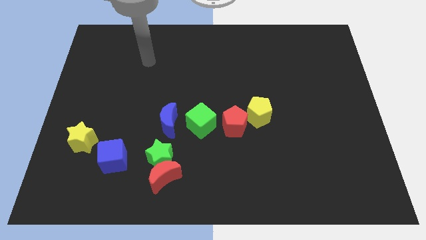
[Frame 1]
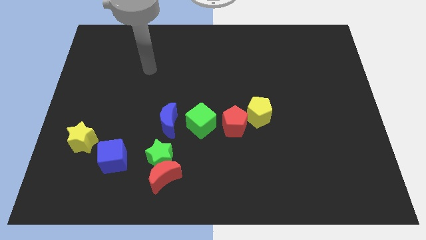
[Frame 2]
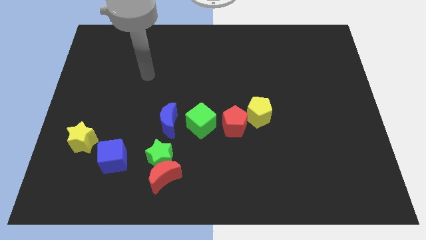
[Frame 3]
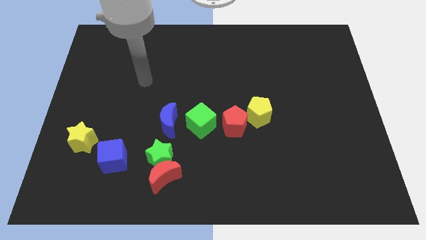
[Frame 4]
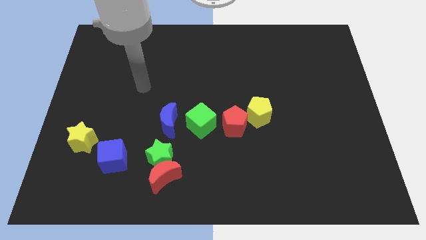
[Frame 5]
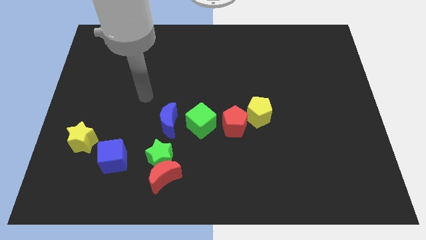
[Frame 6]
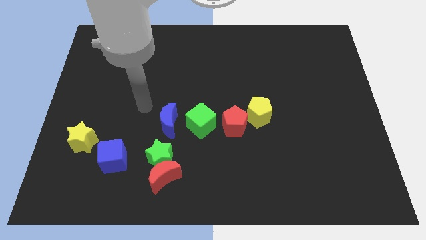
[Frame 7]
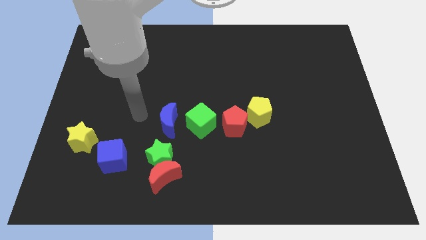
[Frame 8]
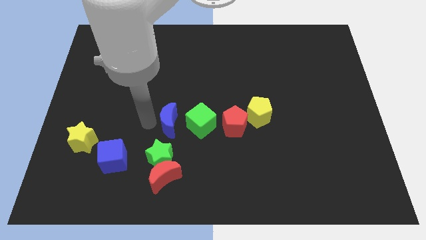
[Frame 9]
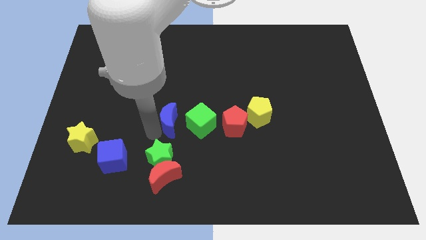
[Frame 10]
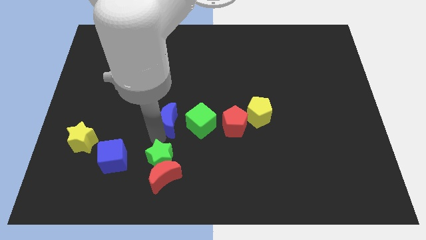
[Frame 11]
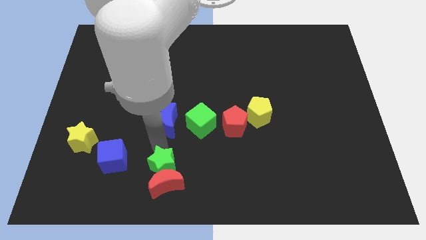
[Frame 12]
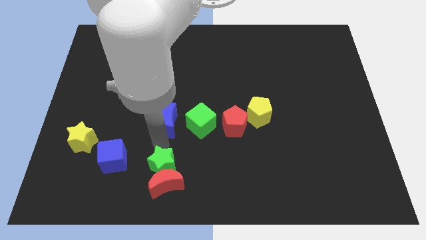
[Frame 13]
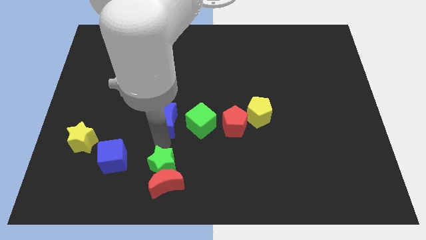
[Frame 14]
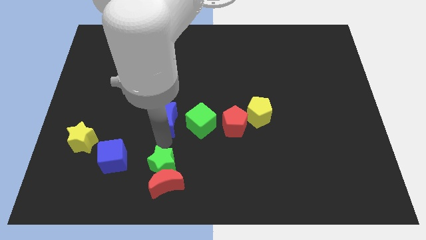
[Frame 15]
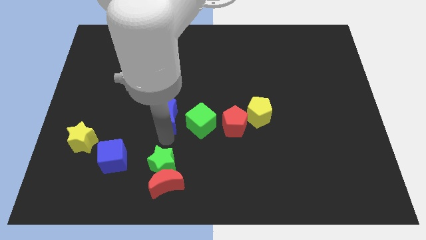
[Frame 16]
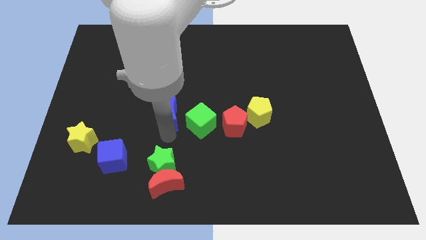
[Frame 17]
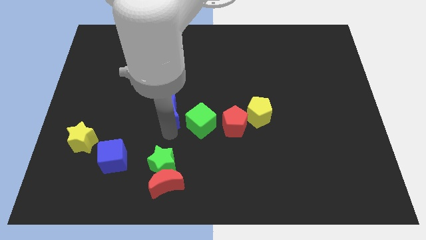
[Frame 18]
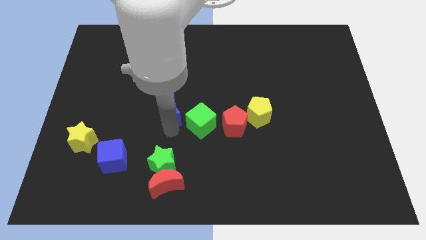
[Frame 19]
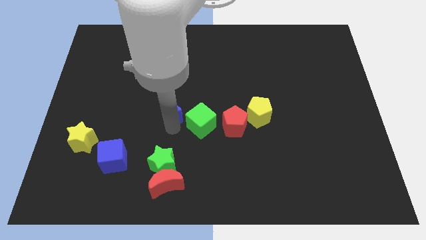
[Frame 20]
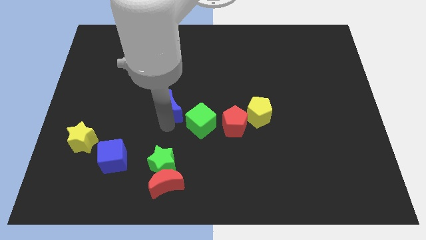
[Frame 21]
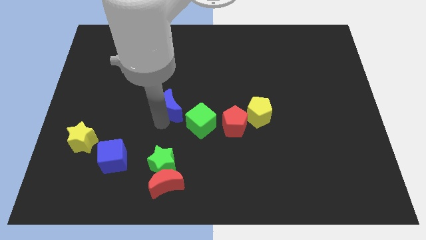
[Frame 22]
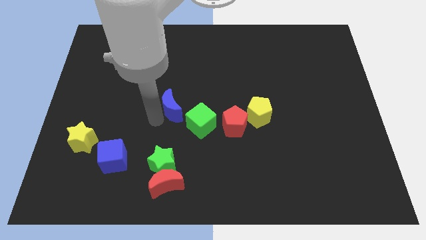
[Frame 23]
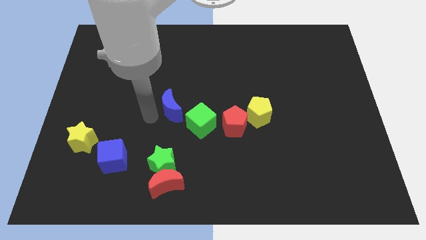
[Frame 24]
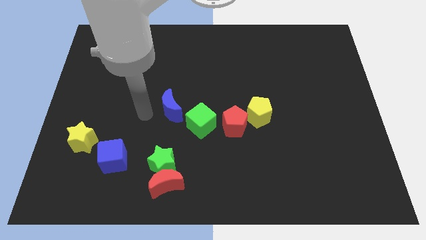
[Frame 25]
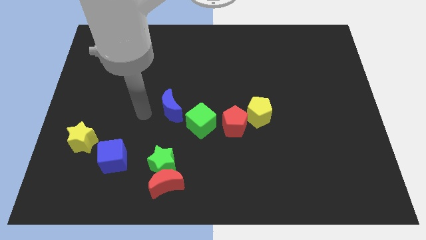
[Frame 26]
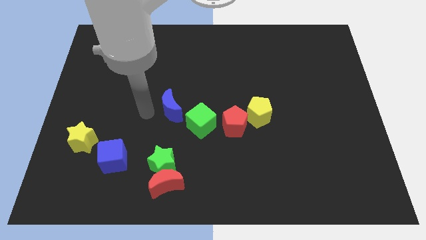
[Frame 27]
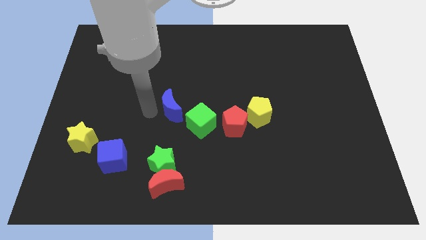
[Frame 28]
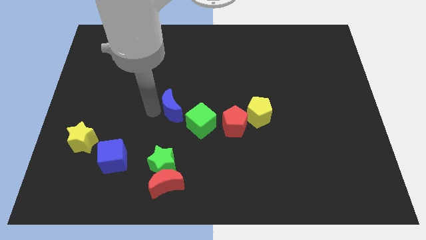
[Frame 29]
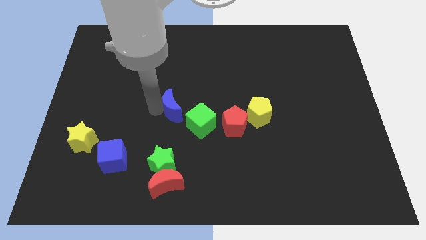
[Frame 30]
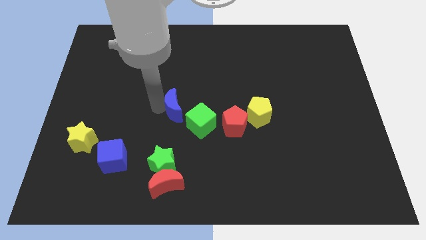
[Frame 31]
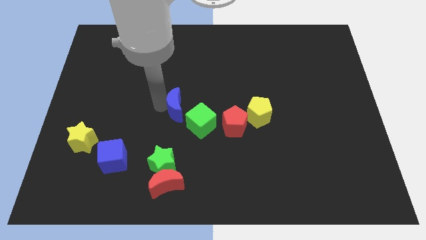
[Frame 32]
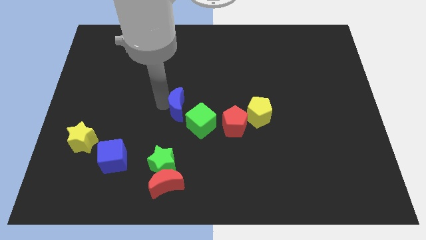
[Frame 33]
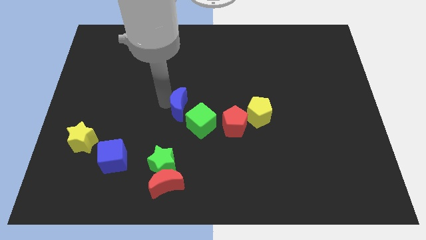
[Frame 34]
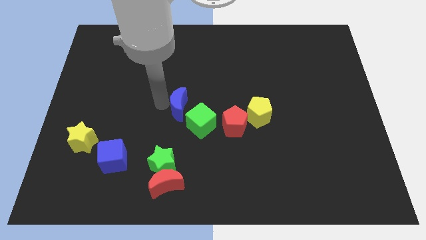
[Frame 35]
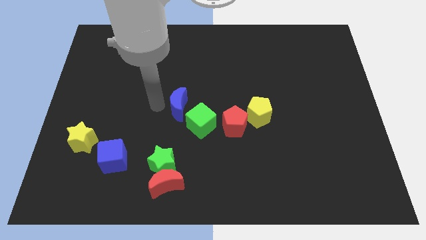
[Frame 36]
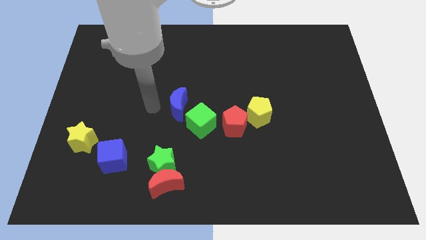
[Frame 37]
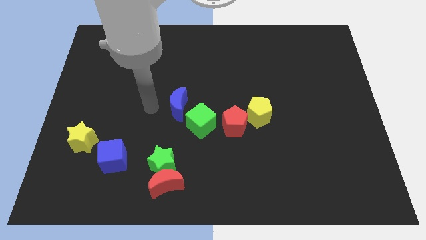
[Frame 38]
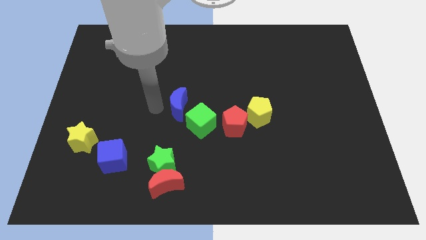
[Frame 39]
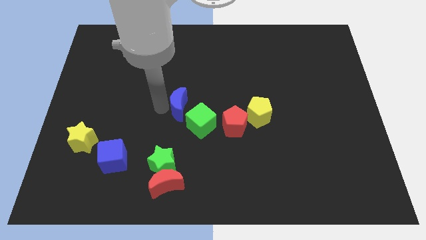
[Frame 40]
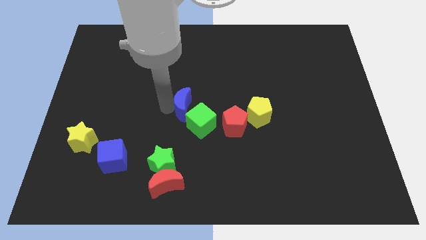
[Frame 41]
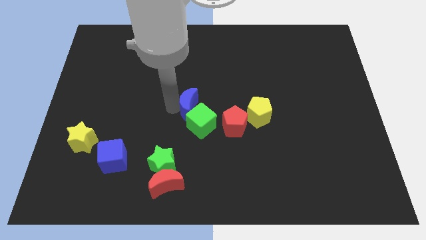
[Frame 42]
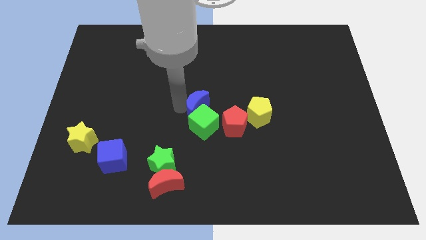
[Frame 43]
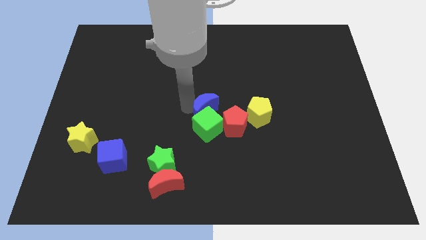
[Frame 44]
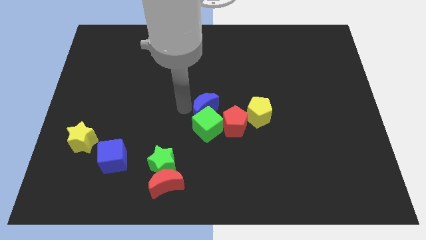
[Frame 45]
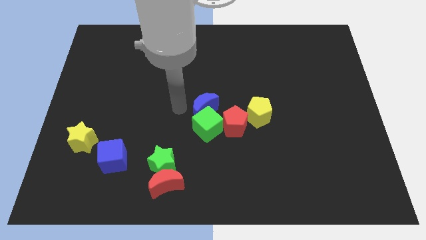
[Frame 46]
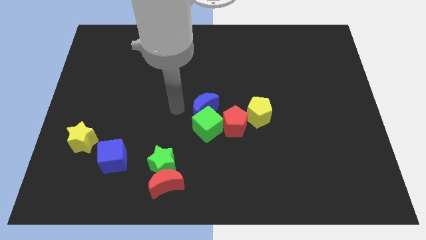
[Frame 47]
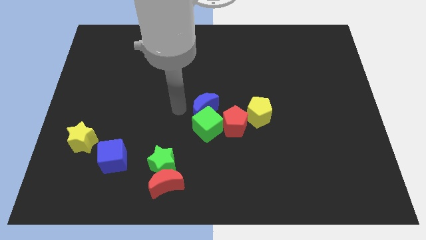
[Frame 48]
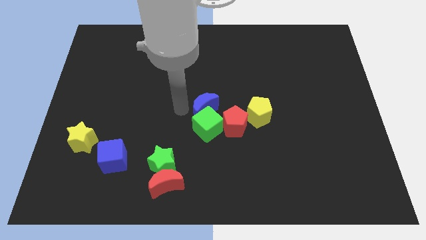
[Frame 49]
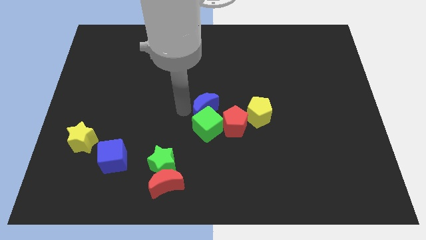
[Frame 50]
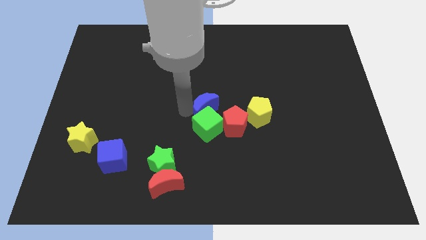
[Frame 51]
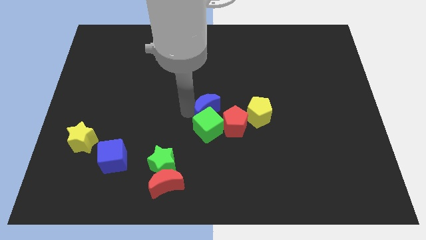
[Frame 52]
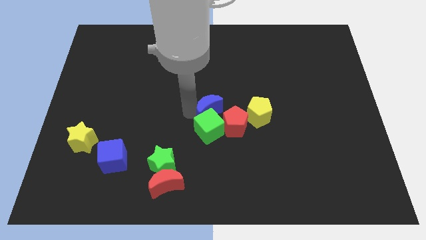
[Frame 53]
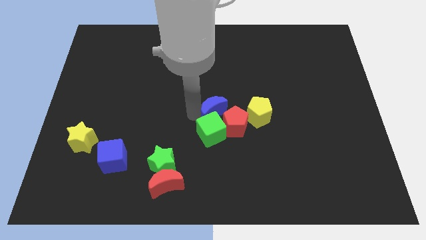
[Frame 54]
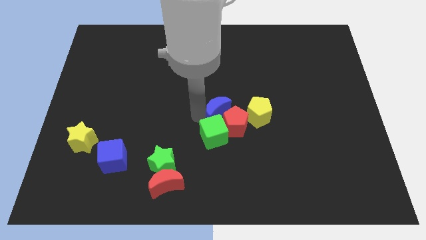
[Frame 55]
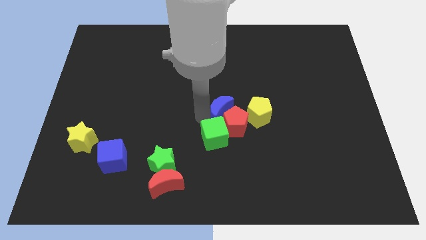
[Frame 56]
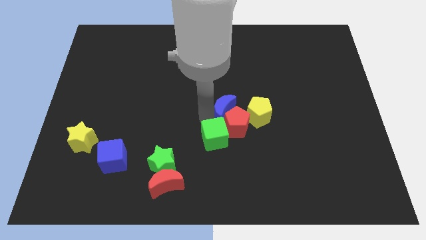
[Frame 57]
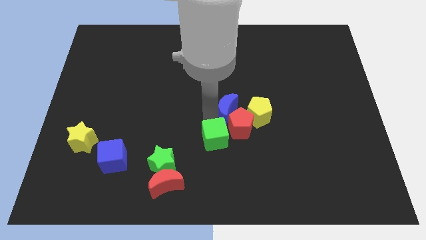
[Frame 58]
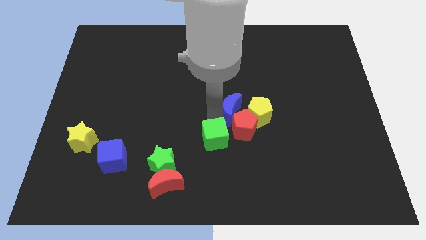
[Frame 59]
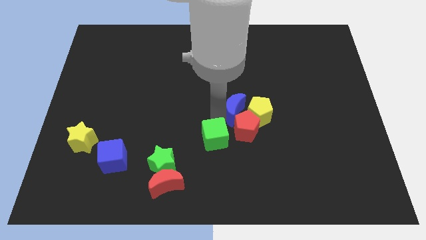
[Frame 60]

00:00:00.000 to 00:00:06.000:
push the blue moon towards the yellow pentagon

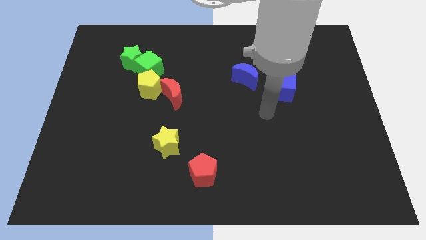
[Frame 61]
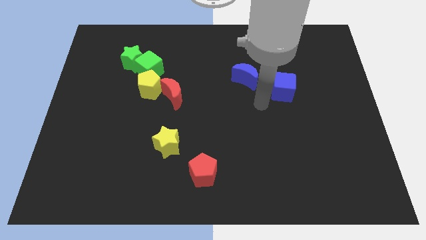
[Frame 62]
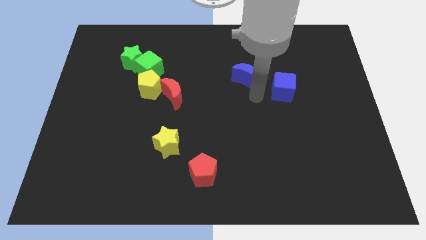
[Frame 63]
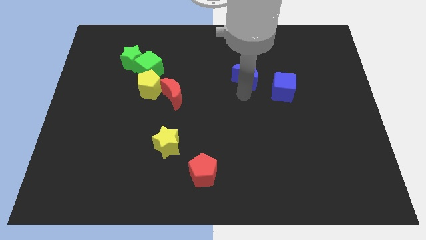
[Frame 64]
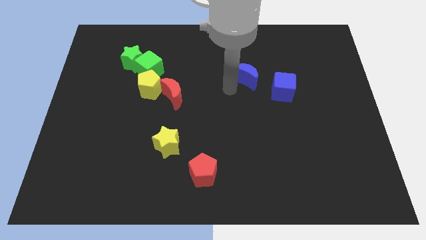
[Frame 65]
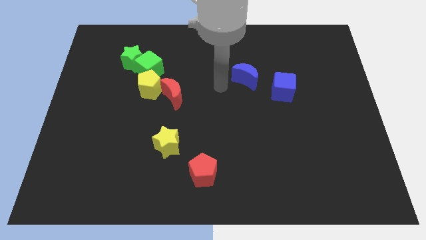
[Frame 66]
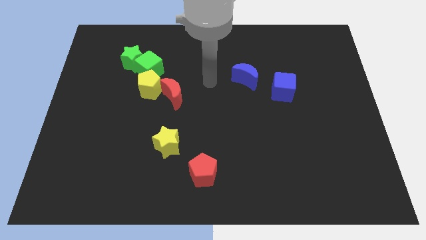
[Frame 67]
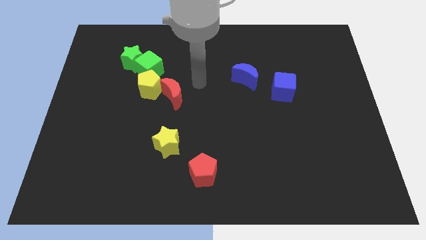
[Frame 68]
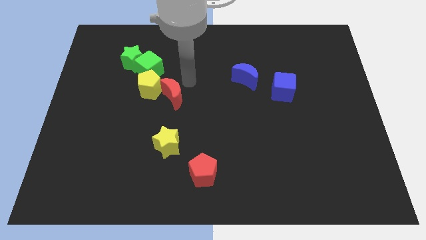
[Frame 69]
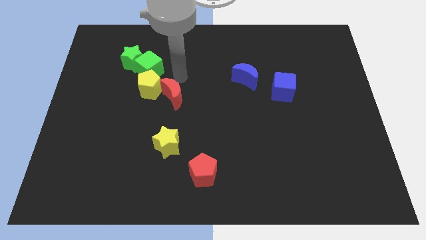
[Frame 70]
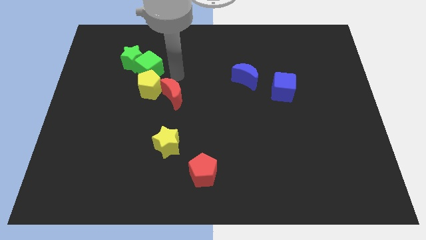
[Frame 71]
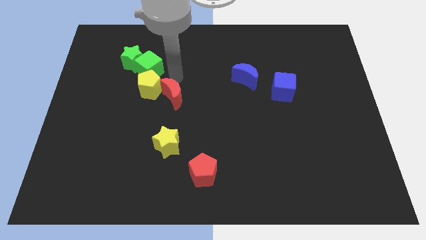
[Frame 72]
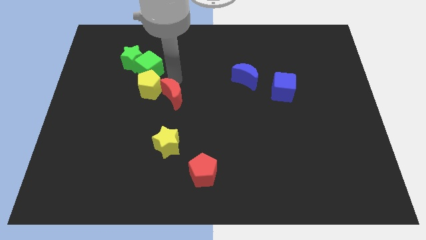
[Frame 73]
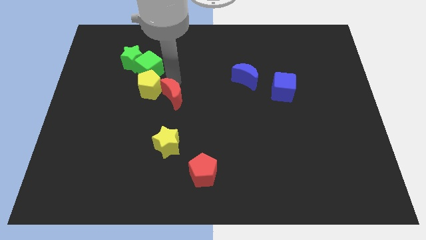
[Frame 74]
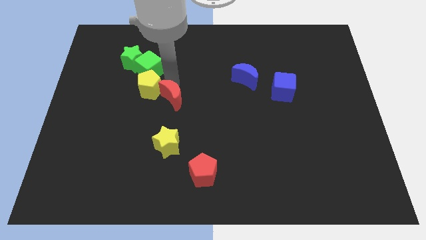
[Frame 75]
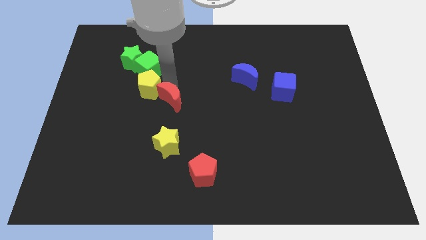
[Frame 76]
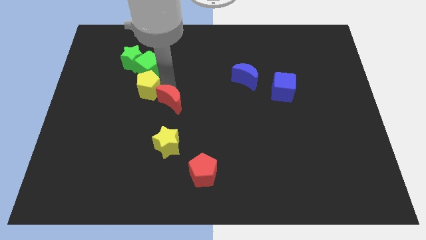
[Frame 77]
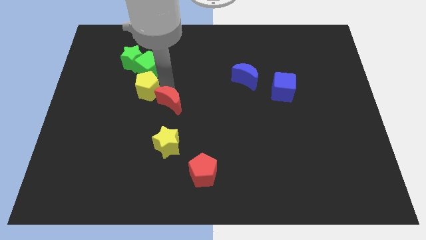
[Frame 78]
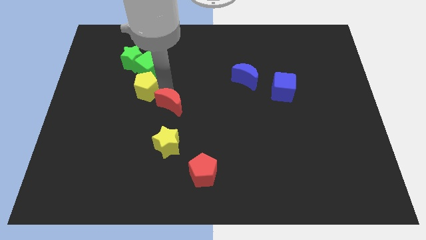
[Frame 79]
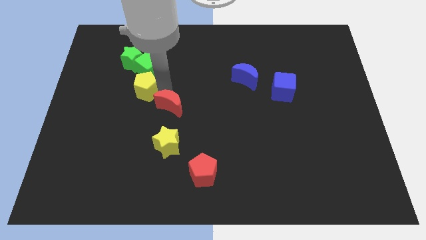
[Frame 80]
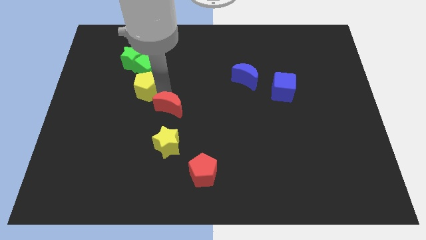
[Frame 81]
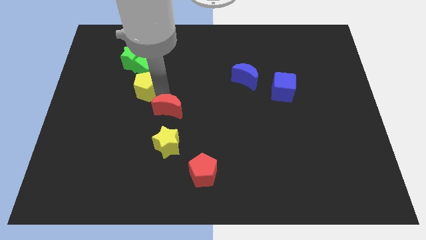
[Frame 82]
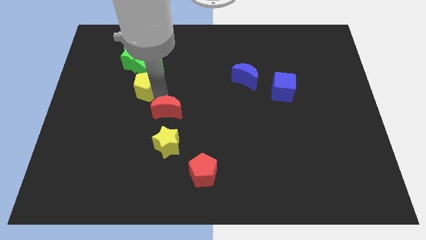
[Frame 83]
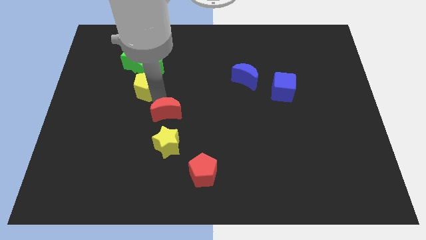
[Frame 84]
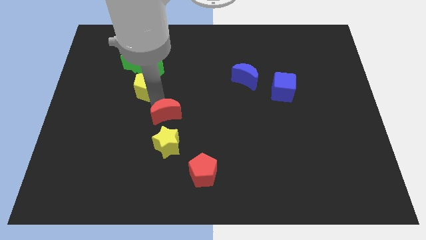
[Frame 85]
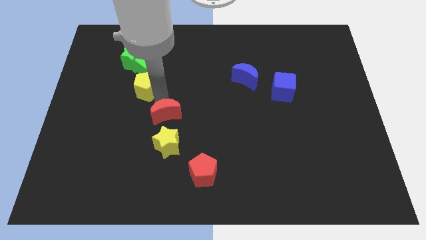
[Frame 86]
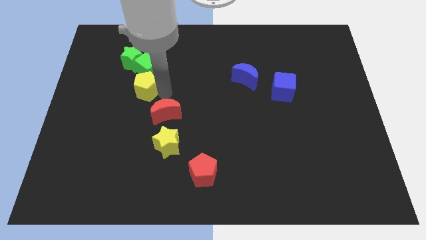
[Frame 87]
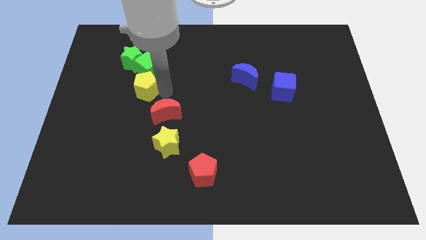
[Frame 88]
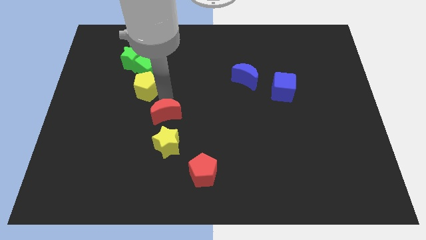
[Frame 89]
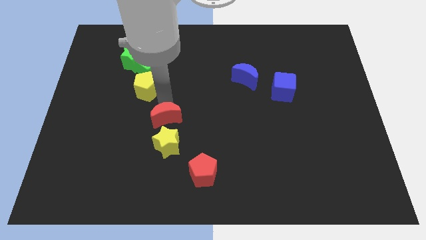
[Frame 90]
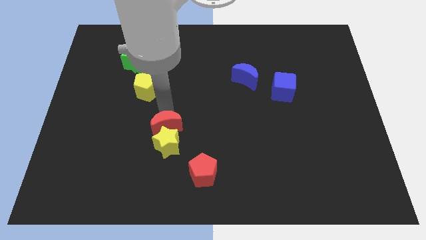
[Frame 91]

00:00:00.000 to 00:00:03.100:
move the red moon to the yellow star
